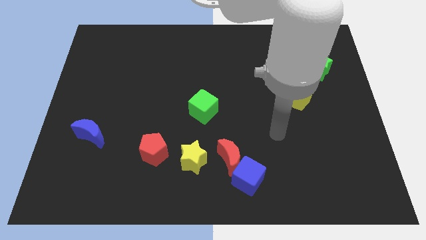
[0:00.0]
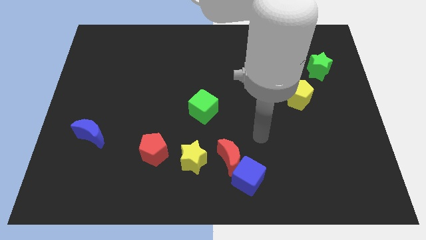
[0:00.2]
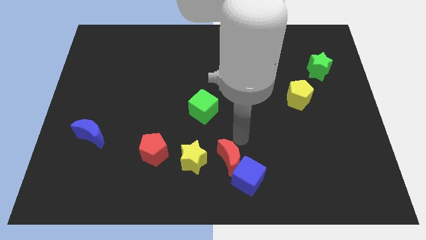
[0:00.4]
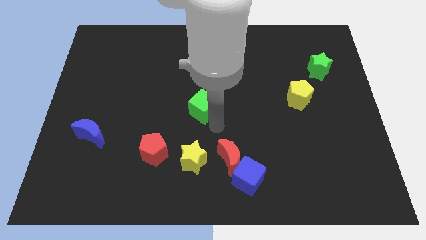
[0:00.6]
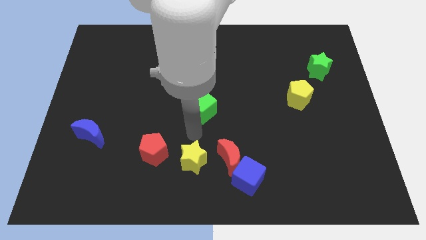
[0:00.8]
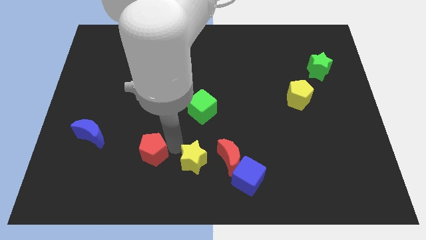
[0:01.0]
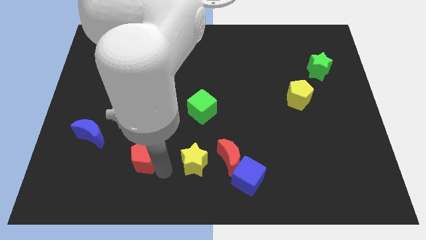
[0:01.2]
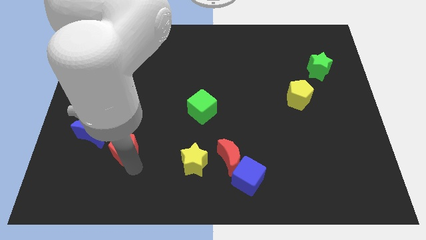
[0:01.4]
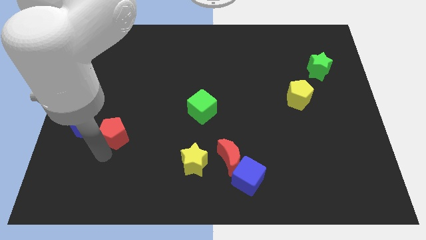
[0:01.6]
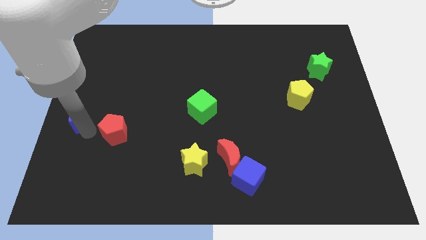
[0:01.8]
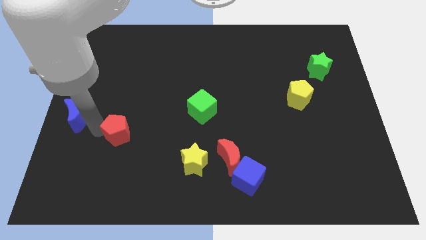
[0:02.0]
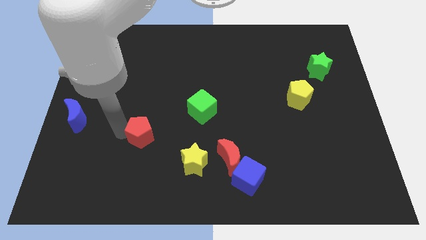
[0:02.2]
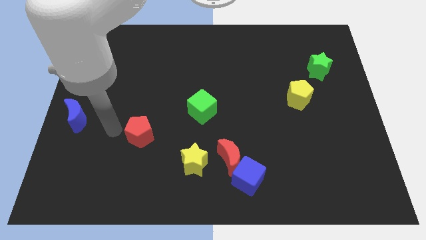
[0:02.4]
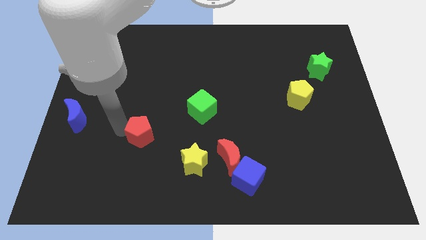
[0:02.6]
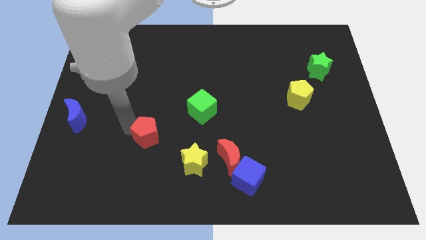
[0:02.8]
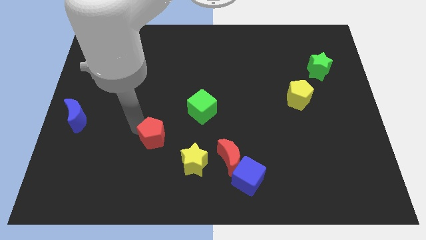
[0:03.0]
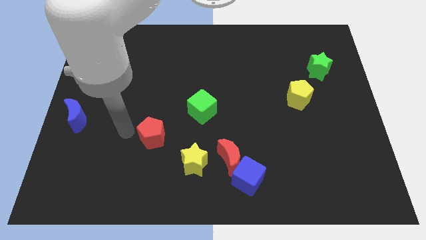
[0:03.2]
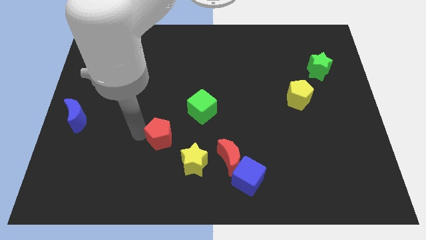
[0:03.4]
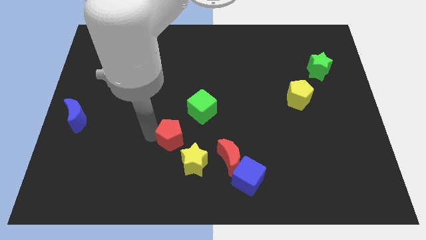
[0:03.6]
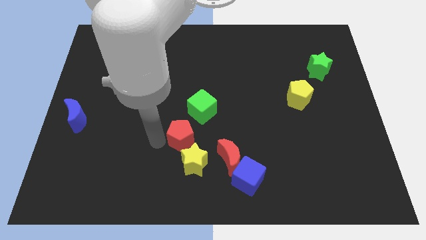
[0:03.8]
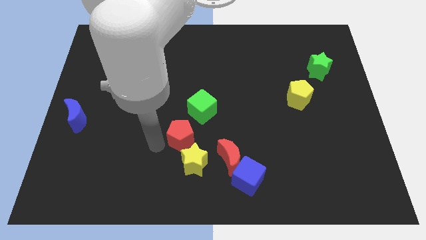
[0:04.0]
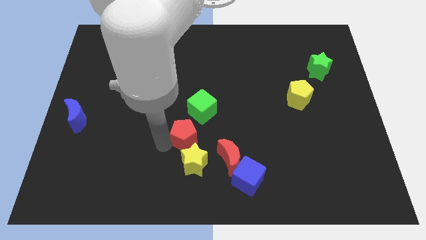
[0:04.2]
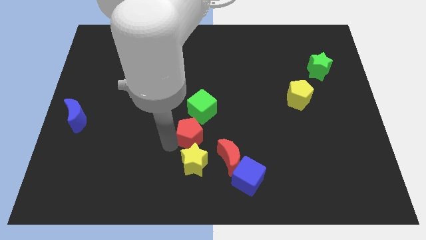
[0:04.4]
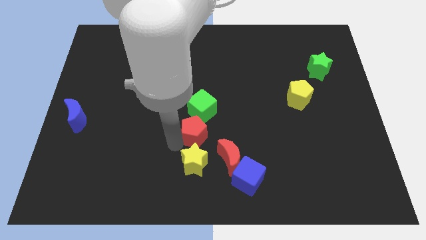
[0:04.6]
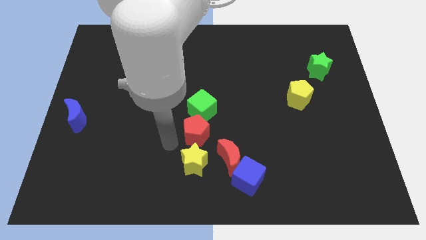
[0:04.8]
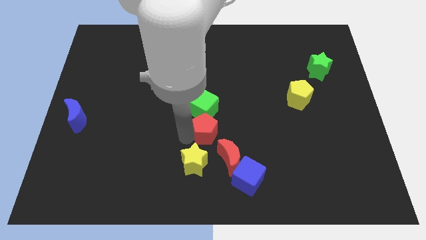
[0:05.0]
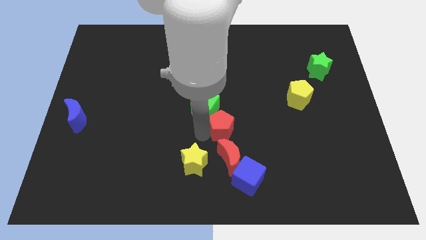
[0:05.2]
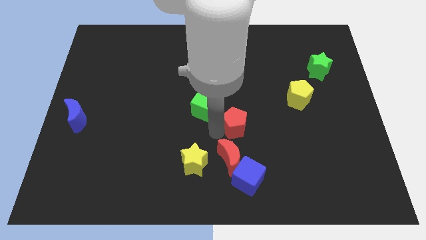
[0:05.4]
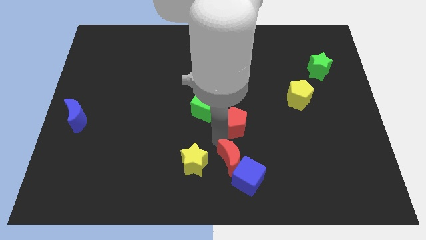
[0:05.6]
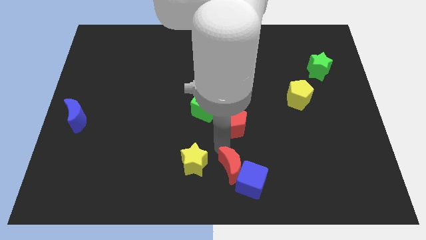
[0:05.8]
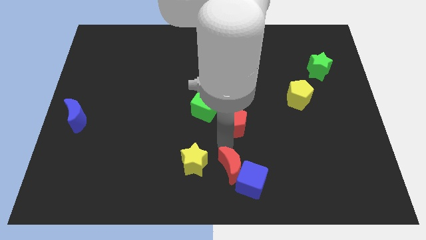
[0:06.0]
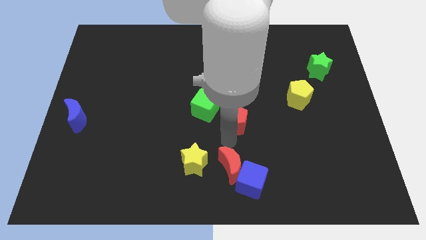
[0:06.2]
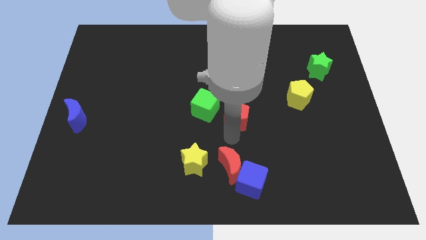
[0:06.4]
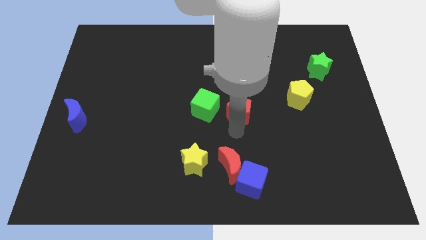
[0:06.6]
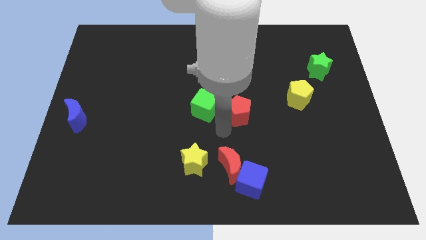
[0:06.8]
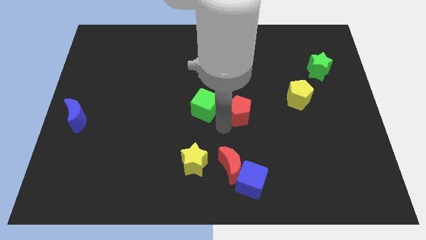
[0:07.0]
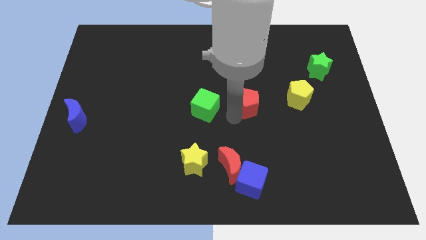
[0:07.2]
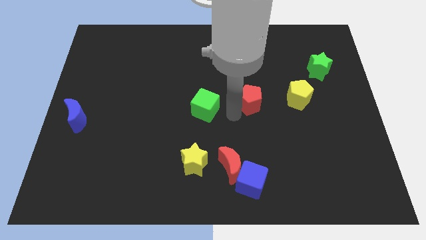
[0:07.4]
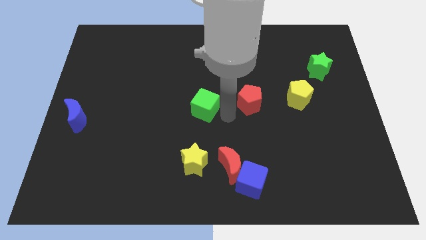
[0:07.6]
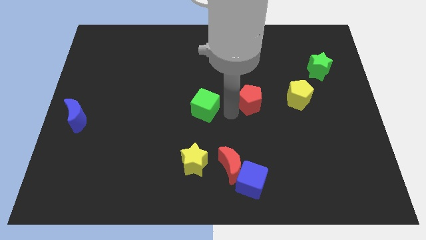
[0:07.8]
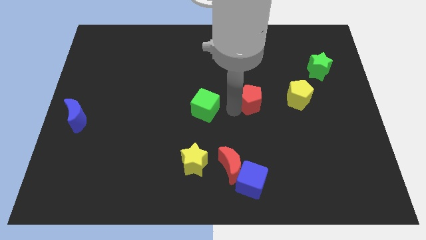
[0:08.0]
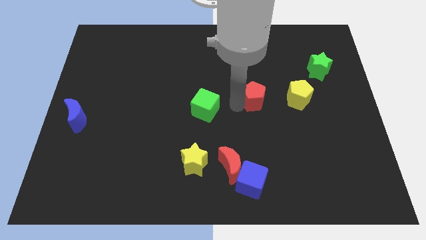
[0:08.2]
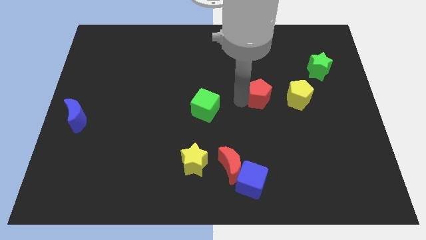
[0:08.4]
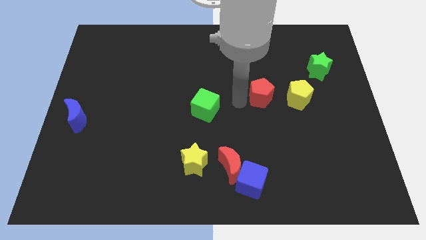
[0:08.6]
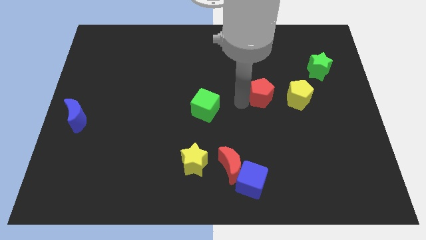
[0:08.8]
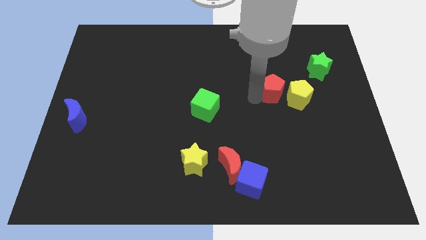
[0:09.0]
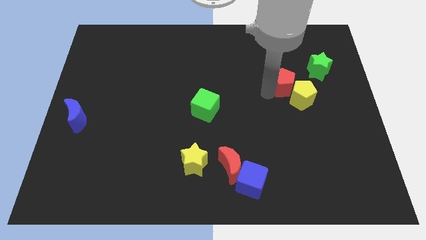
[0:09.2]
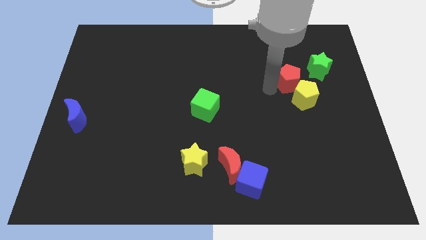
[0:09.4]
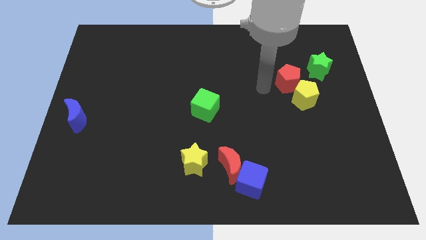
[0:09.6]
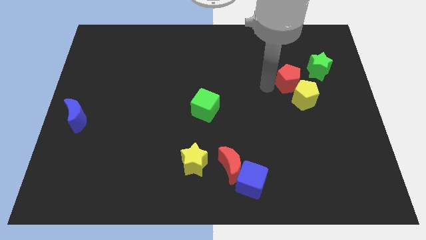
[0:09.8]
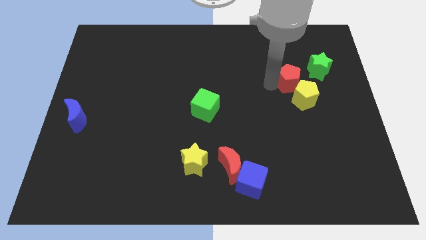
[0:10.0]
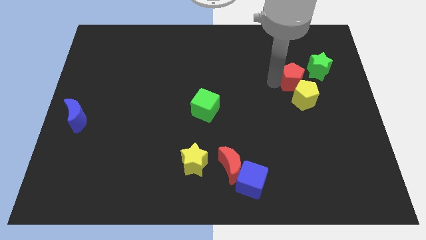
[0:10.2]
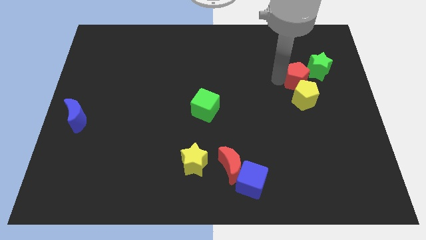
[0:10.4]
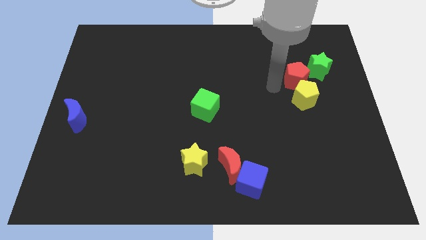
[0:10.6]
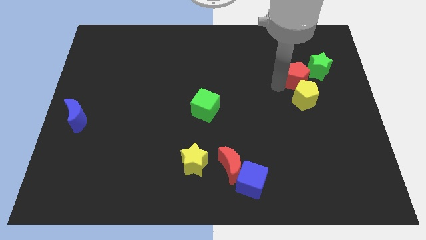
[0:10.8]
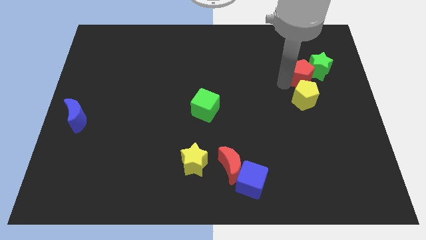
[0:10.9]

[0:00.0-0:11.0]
push the red pentagon close to the green star

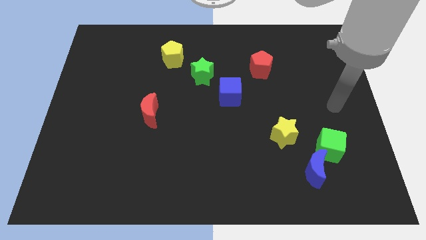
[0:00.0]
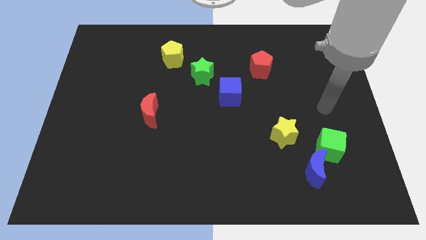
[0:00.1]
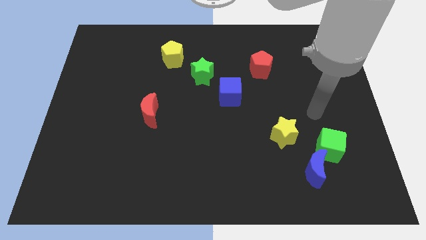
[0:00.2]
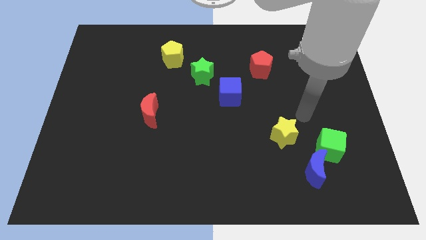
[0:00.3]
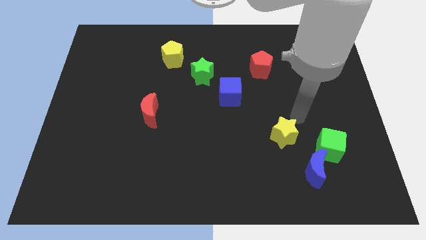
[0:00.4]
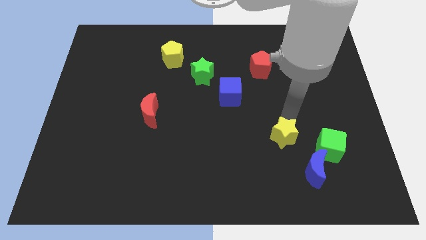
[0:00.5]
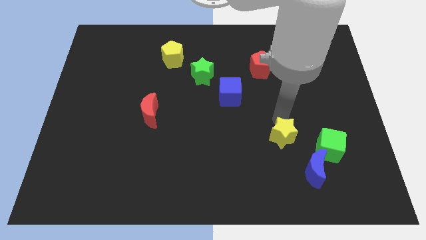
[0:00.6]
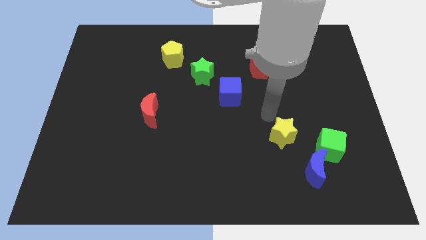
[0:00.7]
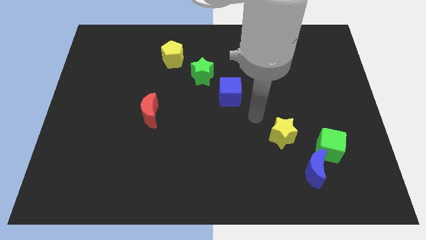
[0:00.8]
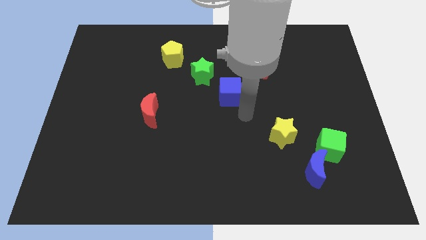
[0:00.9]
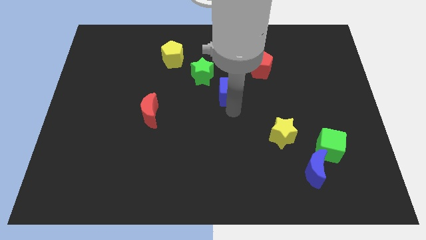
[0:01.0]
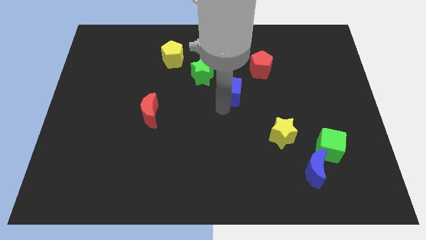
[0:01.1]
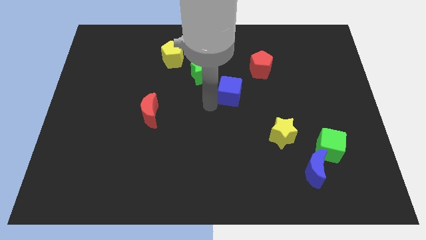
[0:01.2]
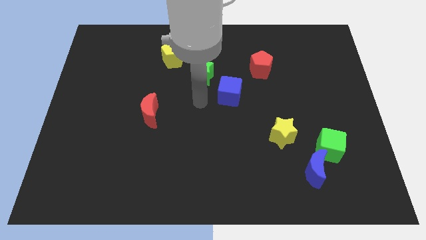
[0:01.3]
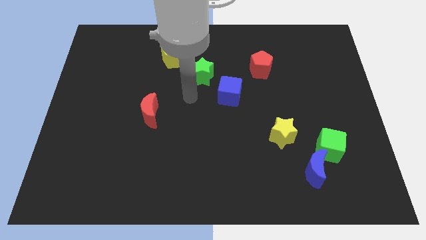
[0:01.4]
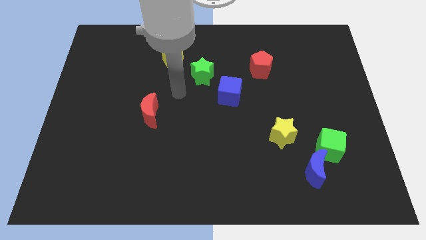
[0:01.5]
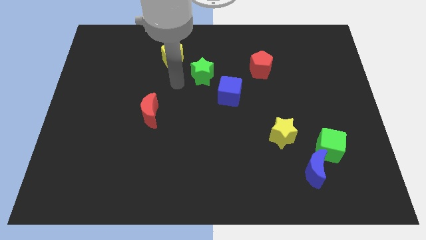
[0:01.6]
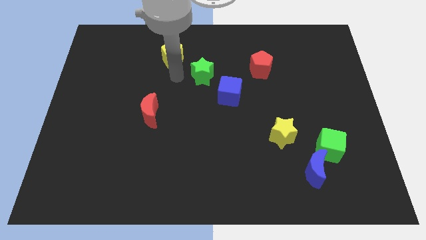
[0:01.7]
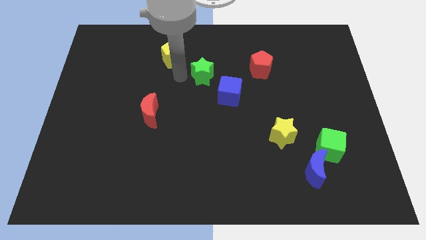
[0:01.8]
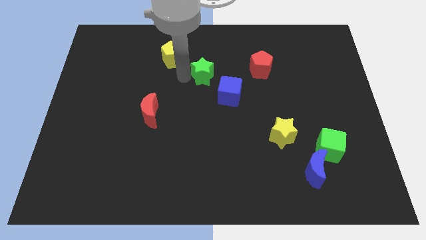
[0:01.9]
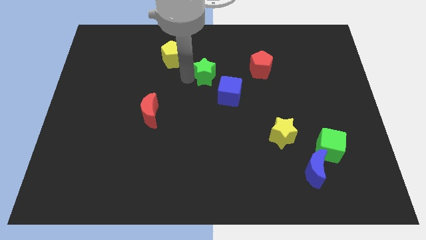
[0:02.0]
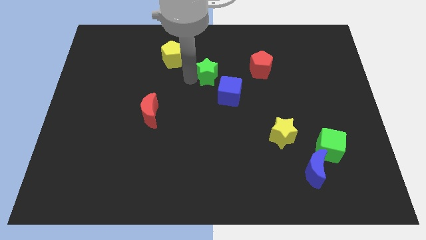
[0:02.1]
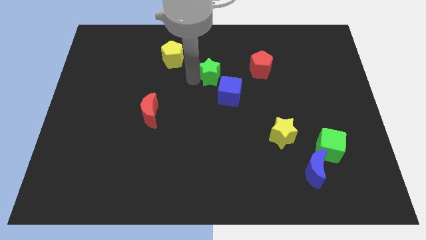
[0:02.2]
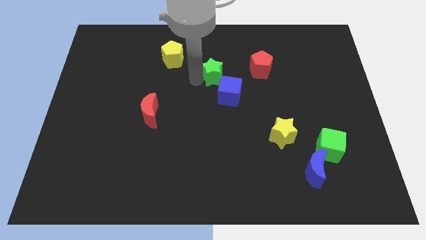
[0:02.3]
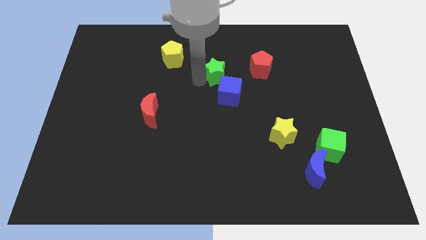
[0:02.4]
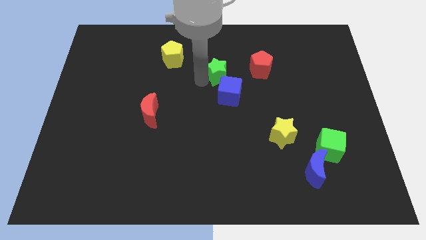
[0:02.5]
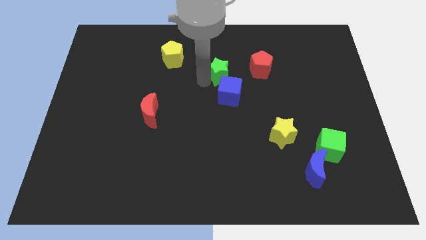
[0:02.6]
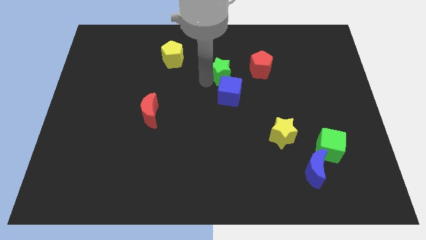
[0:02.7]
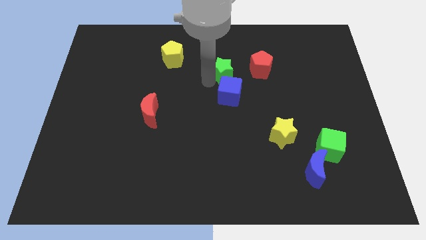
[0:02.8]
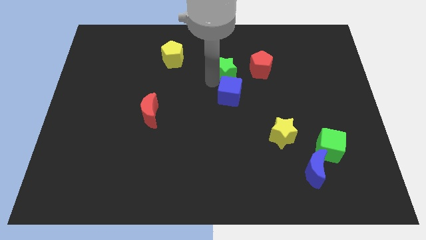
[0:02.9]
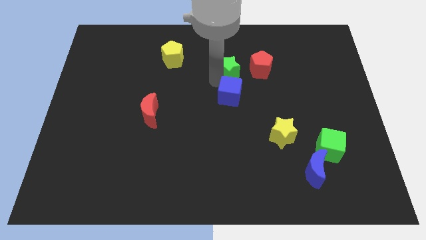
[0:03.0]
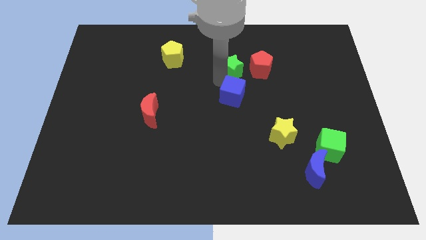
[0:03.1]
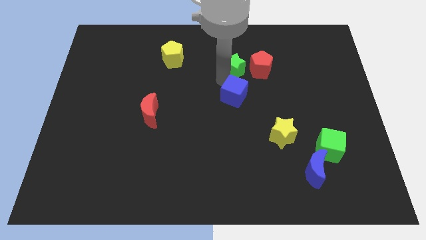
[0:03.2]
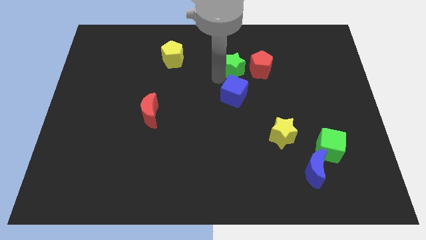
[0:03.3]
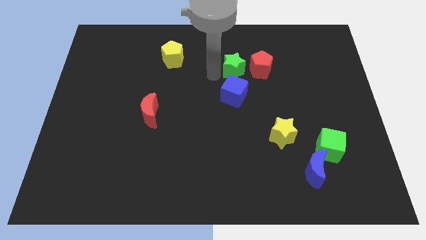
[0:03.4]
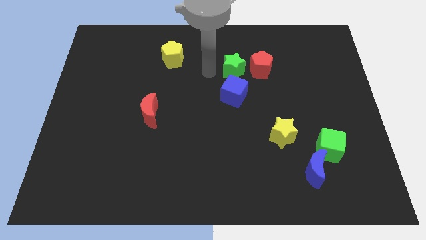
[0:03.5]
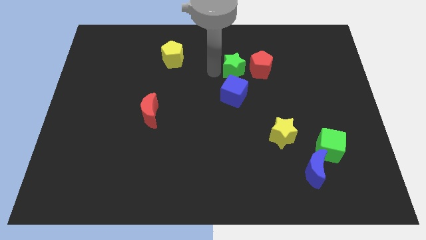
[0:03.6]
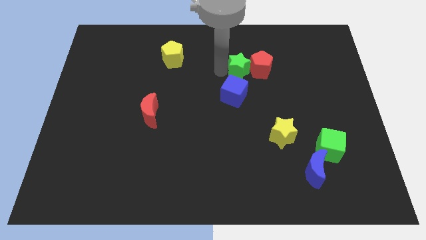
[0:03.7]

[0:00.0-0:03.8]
put the green star close to the red pentagon
